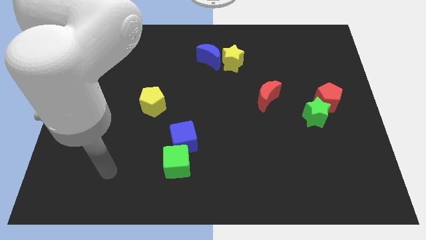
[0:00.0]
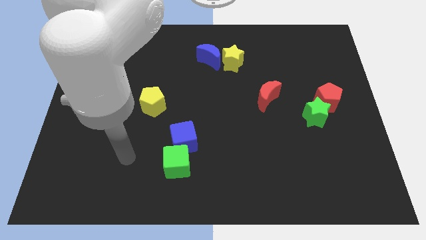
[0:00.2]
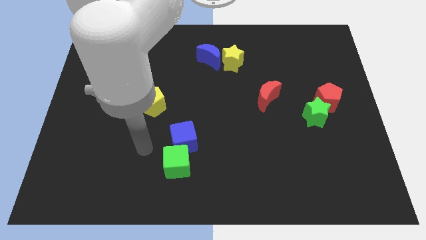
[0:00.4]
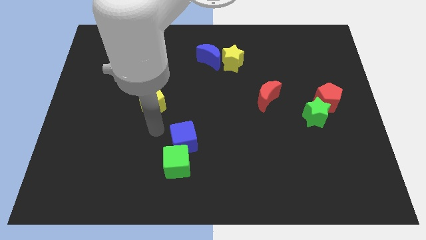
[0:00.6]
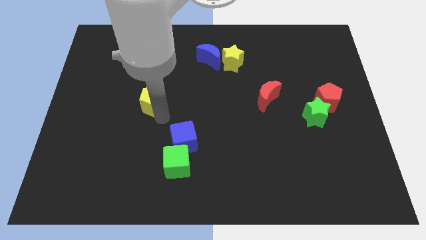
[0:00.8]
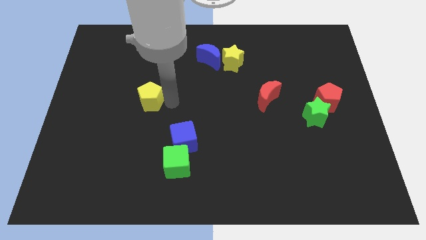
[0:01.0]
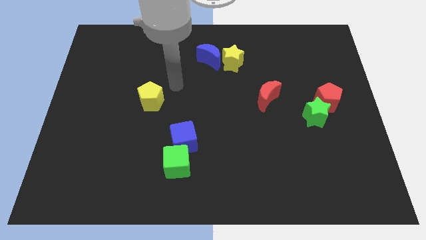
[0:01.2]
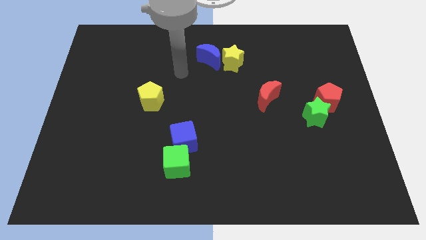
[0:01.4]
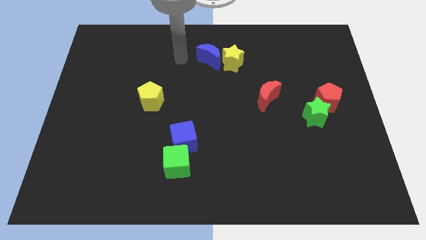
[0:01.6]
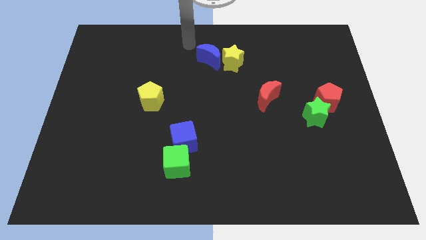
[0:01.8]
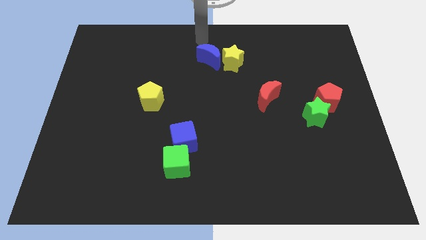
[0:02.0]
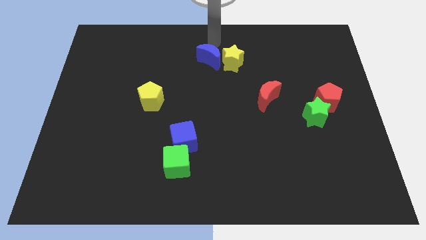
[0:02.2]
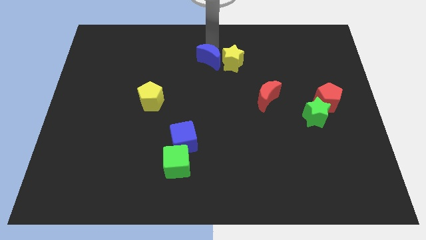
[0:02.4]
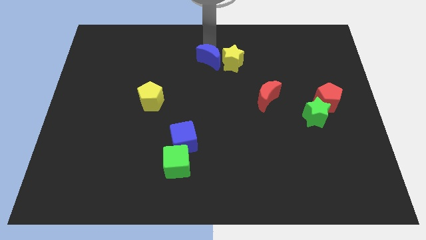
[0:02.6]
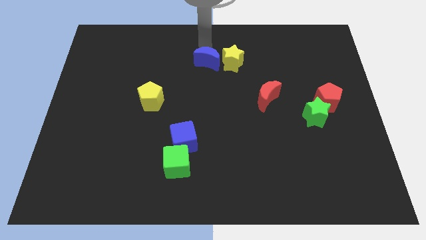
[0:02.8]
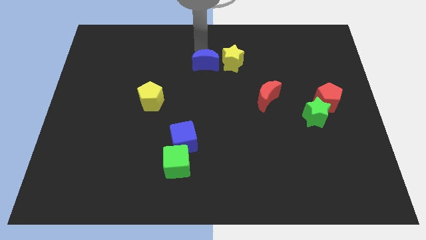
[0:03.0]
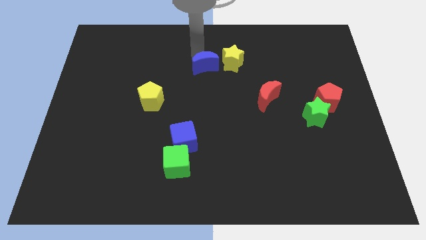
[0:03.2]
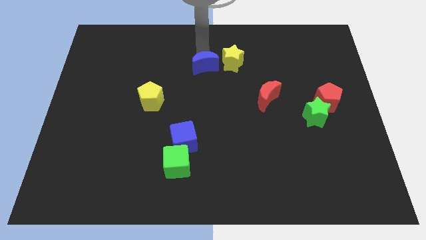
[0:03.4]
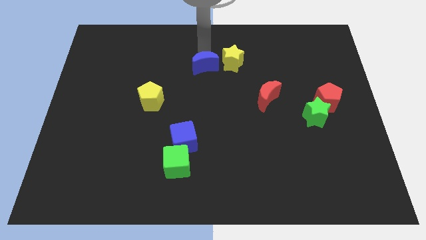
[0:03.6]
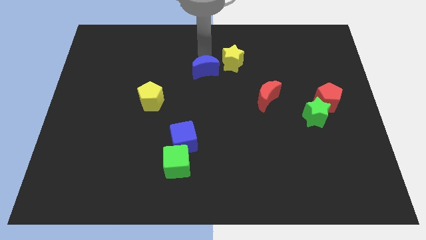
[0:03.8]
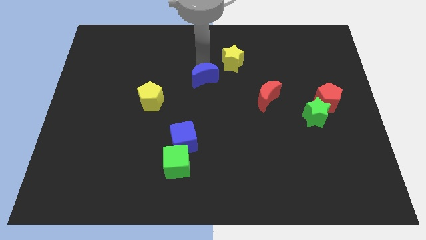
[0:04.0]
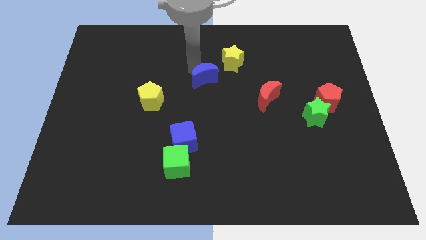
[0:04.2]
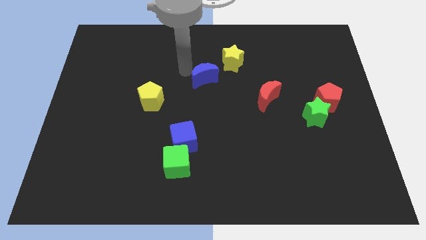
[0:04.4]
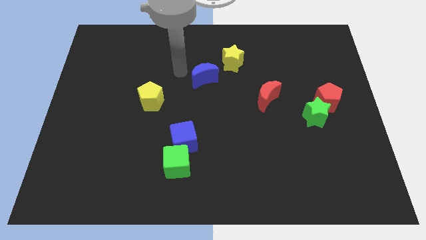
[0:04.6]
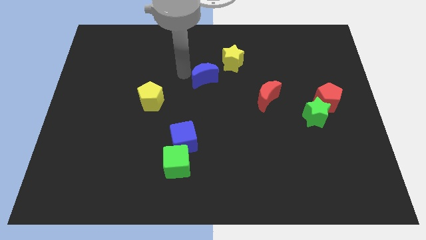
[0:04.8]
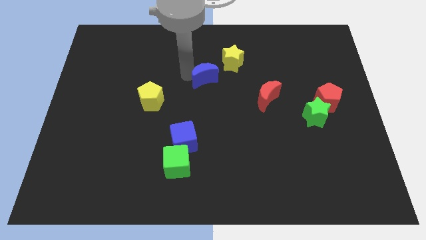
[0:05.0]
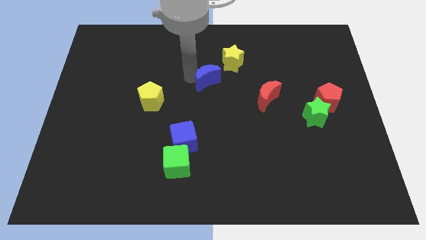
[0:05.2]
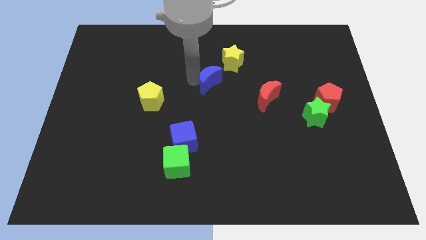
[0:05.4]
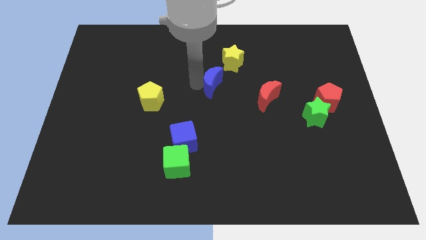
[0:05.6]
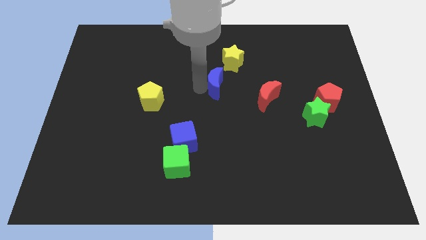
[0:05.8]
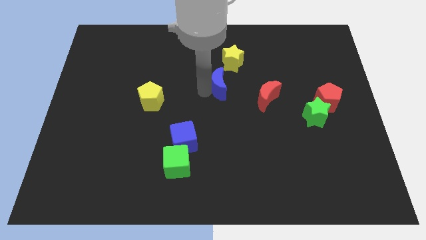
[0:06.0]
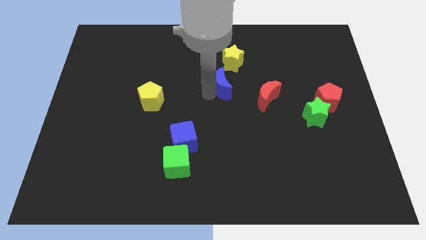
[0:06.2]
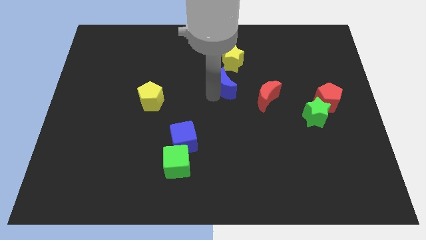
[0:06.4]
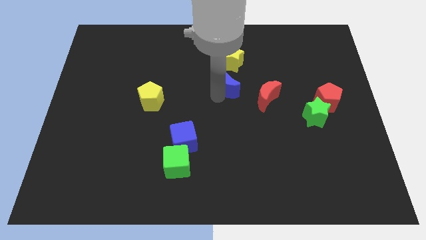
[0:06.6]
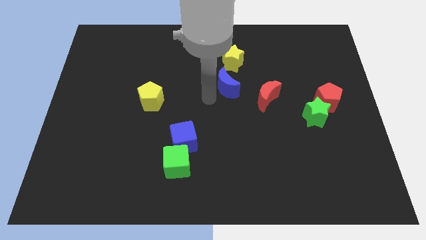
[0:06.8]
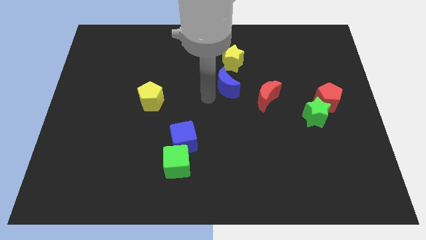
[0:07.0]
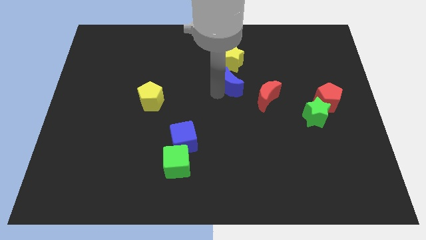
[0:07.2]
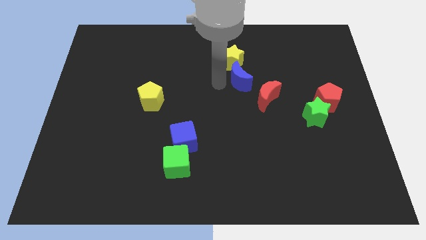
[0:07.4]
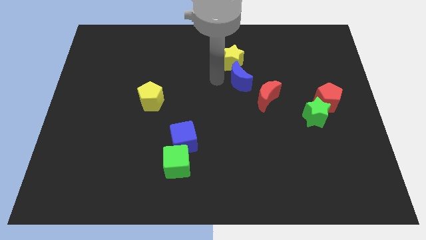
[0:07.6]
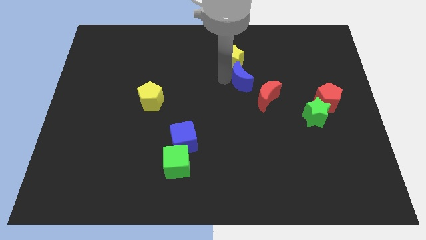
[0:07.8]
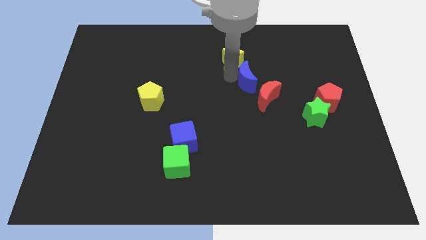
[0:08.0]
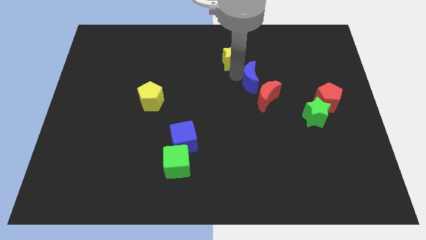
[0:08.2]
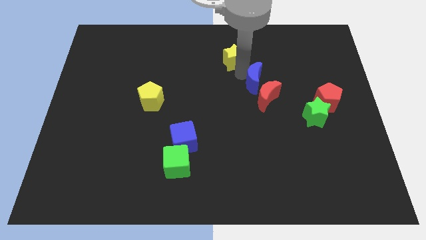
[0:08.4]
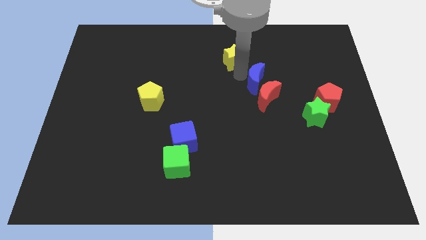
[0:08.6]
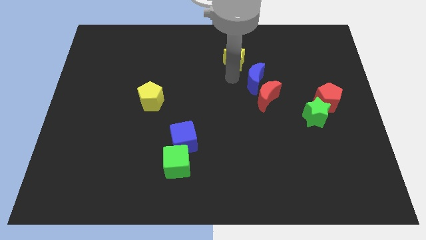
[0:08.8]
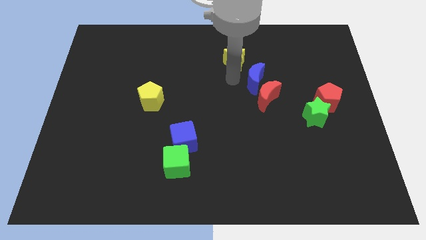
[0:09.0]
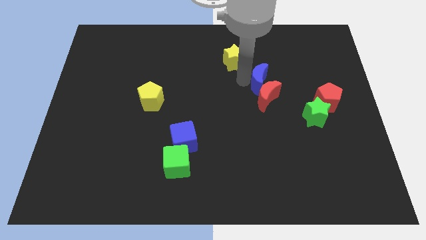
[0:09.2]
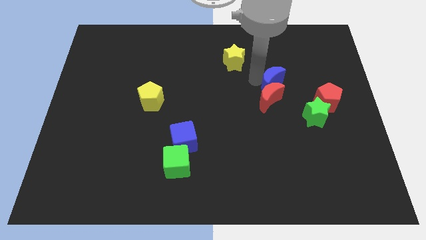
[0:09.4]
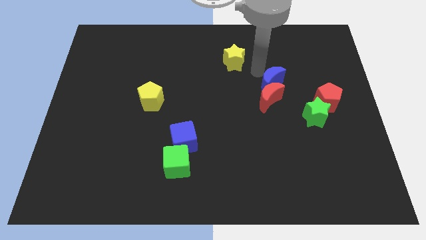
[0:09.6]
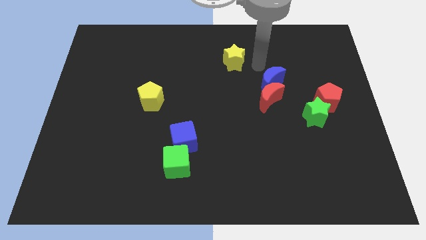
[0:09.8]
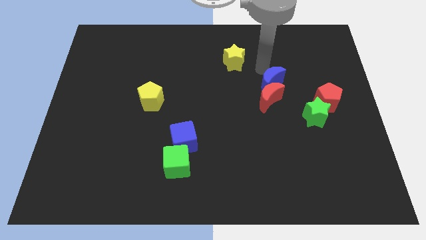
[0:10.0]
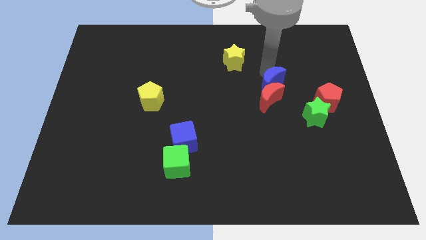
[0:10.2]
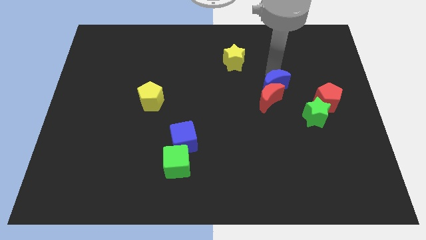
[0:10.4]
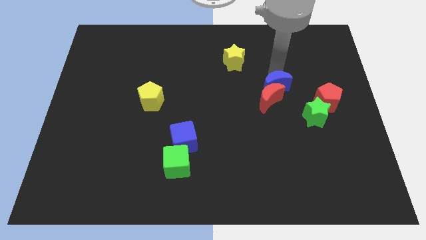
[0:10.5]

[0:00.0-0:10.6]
move the blue moon just left of the red pentagon

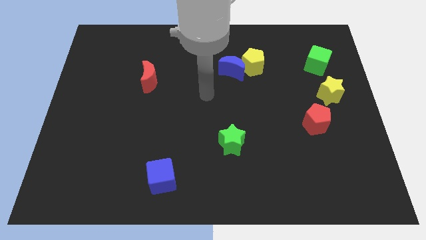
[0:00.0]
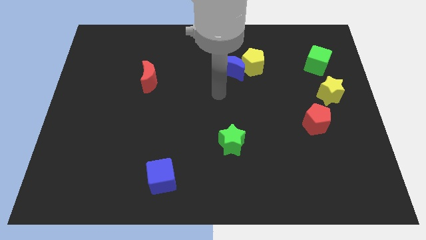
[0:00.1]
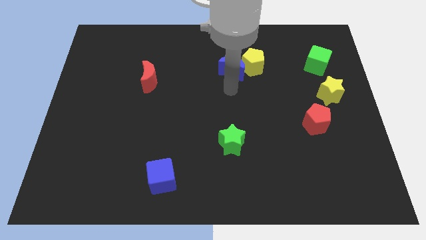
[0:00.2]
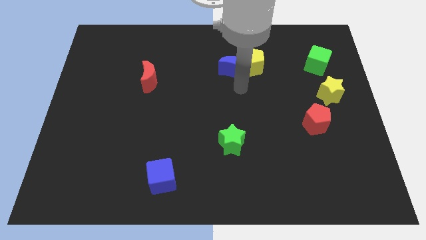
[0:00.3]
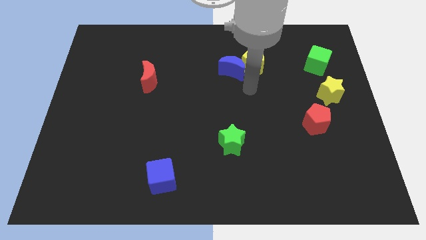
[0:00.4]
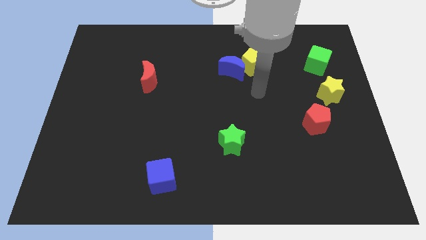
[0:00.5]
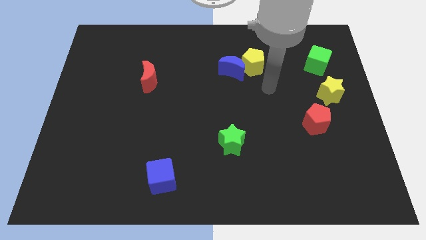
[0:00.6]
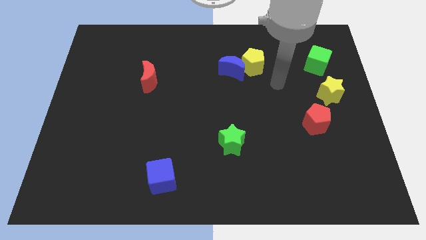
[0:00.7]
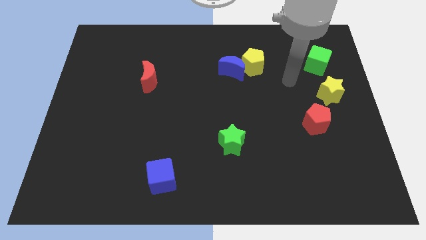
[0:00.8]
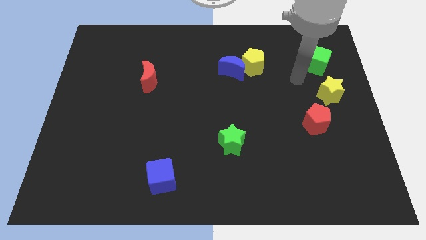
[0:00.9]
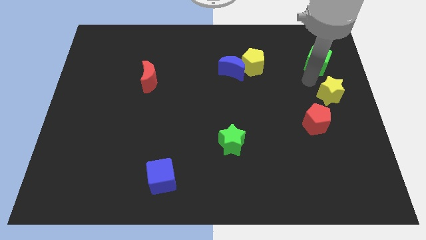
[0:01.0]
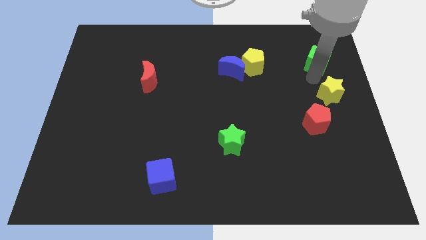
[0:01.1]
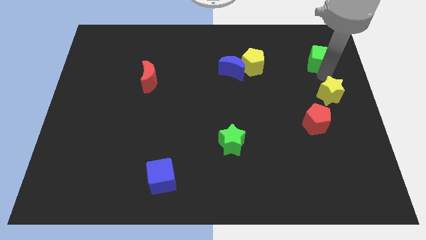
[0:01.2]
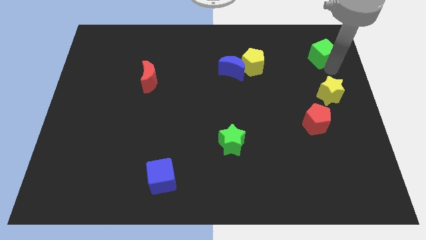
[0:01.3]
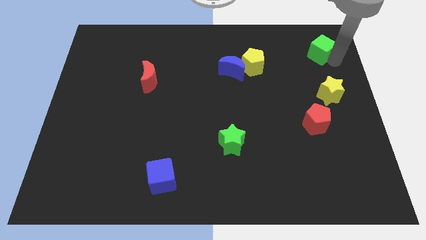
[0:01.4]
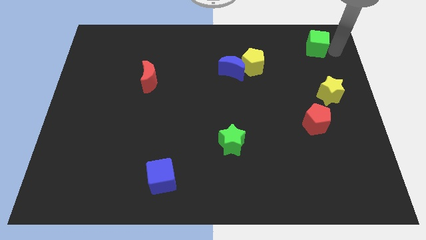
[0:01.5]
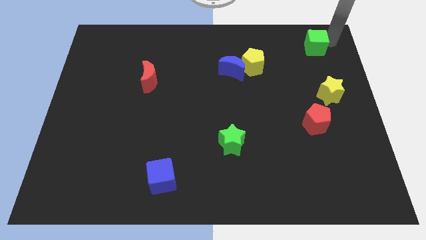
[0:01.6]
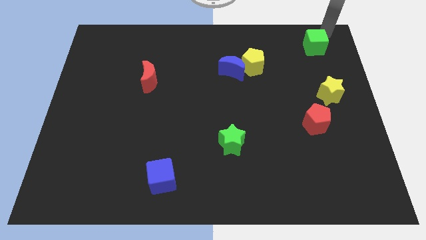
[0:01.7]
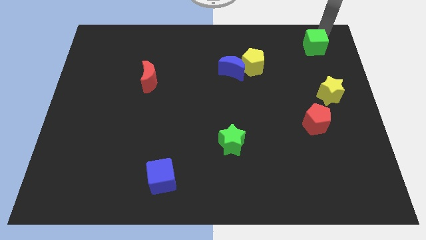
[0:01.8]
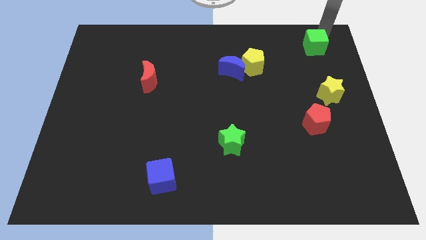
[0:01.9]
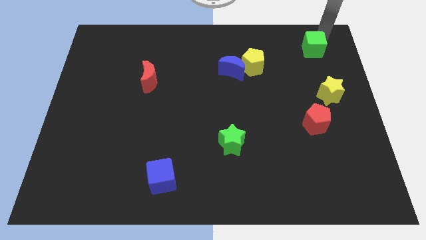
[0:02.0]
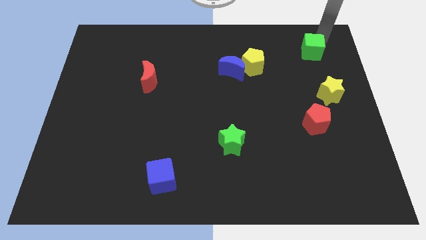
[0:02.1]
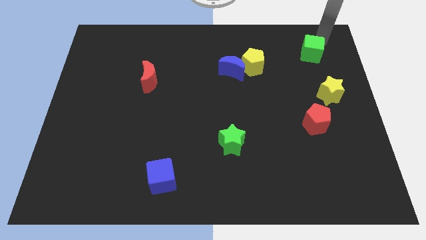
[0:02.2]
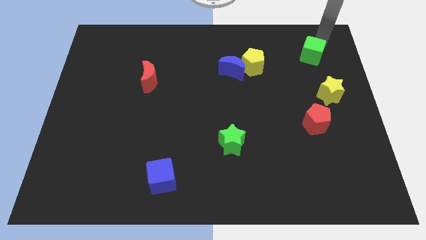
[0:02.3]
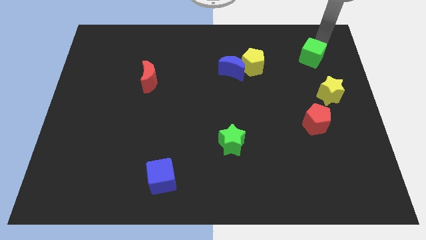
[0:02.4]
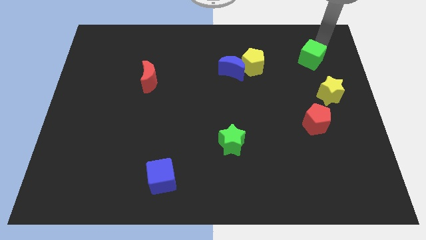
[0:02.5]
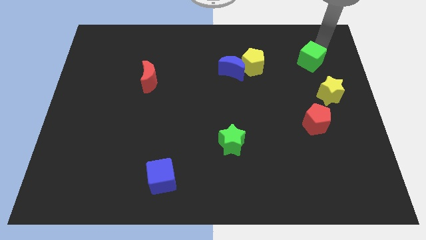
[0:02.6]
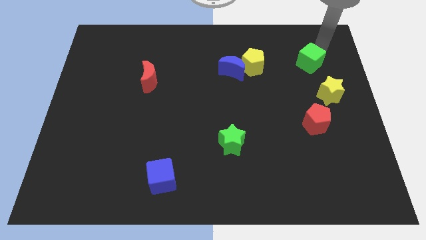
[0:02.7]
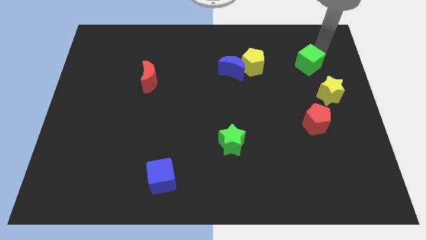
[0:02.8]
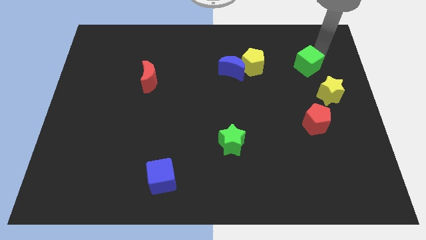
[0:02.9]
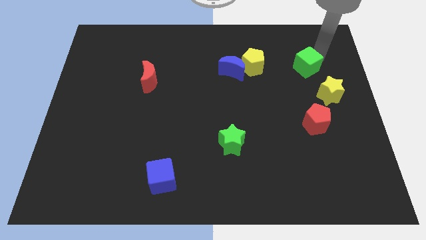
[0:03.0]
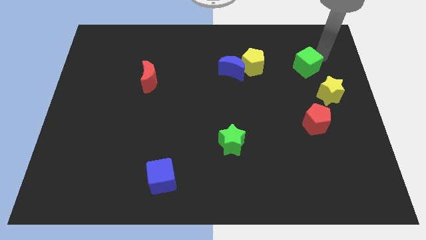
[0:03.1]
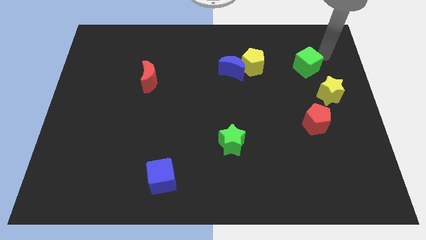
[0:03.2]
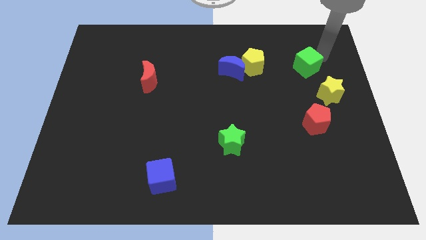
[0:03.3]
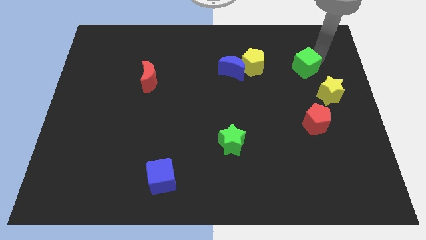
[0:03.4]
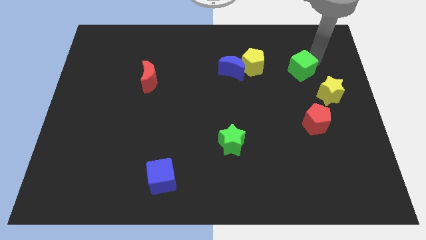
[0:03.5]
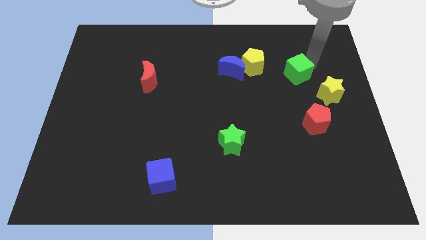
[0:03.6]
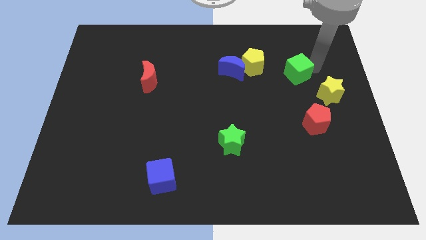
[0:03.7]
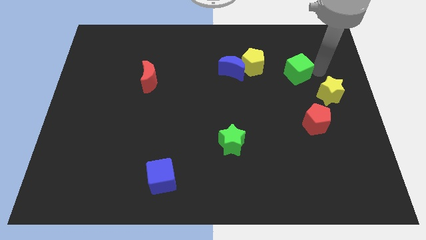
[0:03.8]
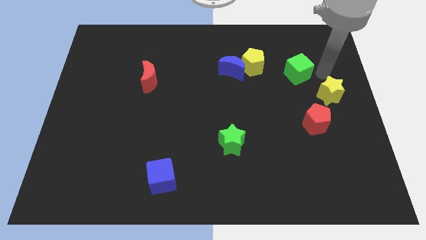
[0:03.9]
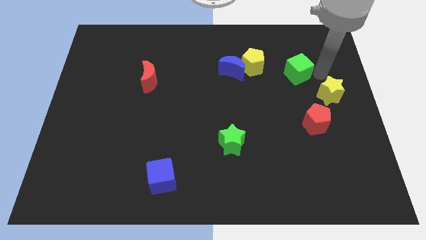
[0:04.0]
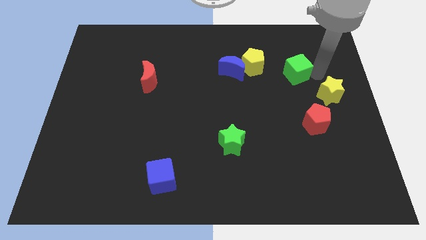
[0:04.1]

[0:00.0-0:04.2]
move the green cube just right of the blue moon
